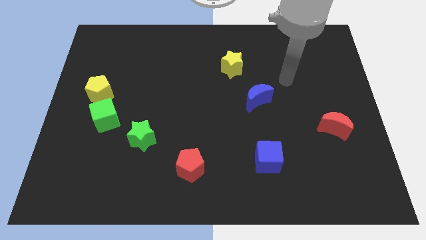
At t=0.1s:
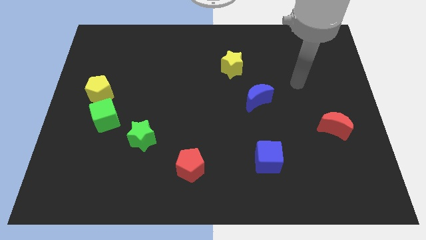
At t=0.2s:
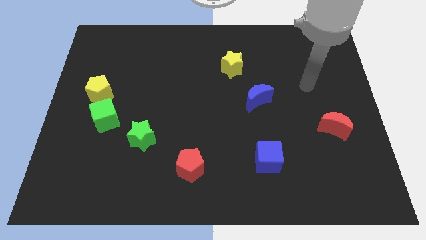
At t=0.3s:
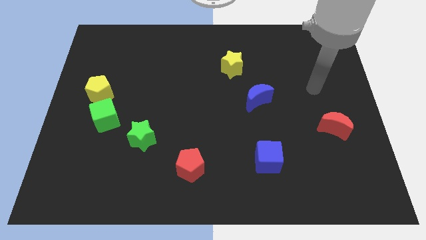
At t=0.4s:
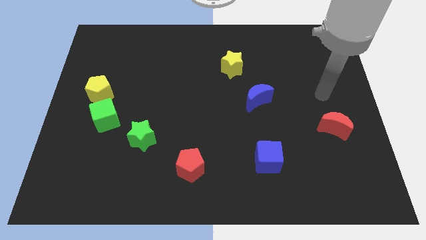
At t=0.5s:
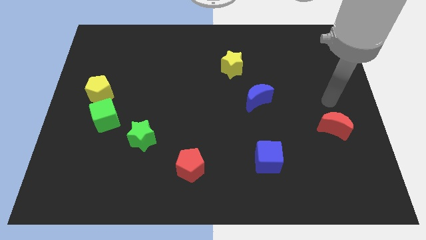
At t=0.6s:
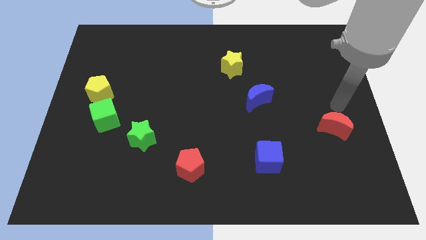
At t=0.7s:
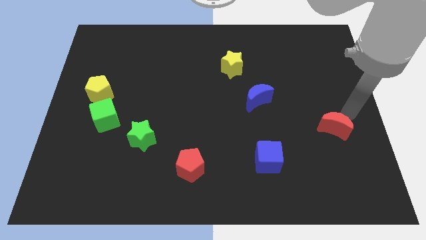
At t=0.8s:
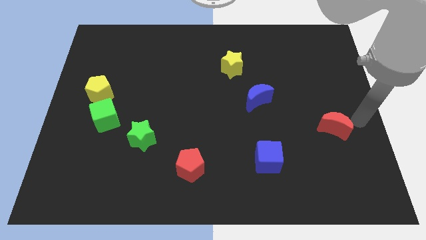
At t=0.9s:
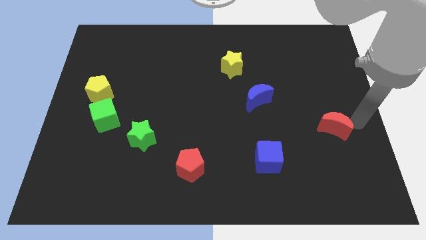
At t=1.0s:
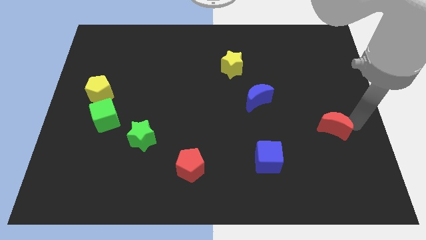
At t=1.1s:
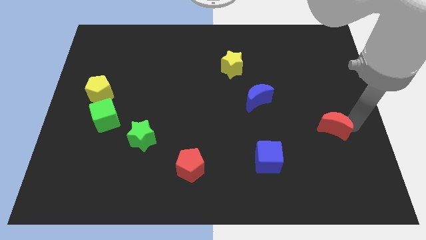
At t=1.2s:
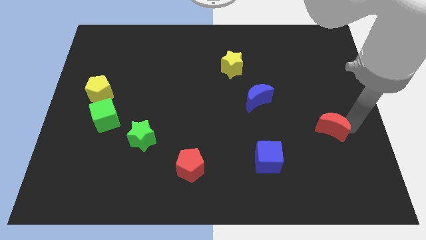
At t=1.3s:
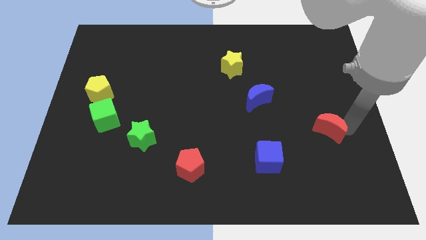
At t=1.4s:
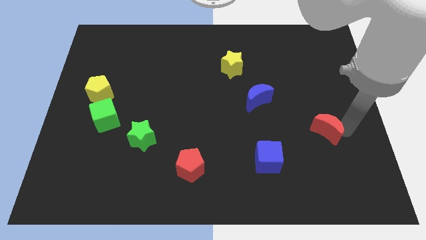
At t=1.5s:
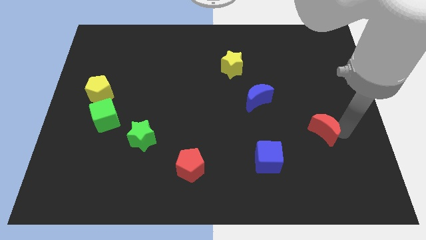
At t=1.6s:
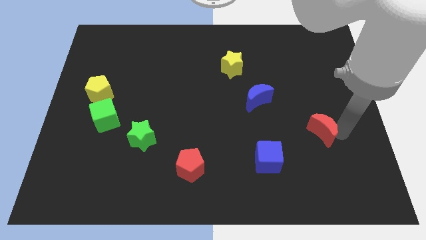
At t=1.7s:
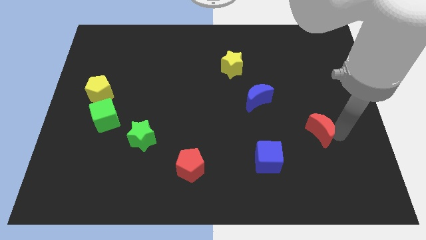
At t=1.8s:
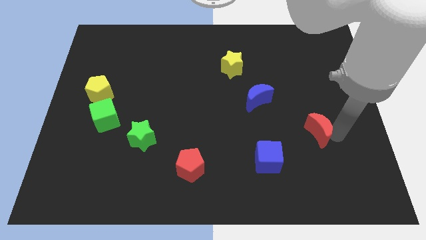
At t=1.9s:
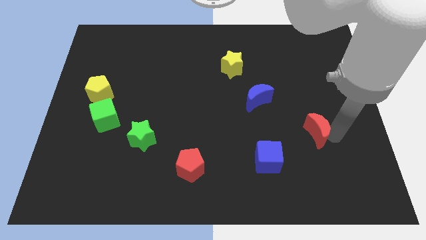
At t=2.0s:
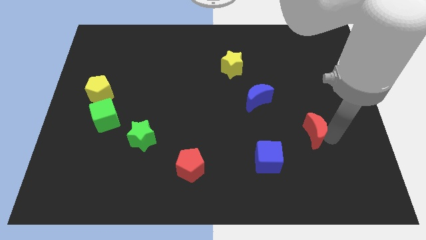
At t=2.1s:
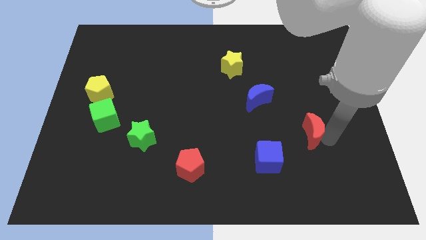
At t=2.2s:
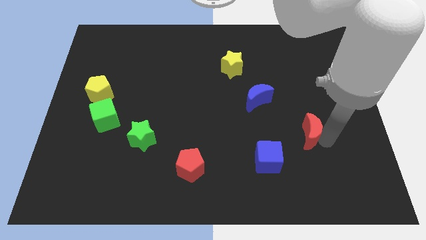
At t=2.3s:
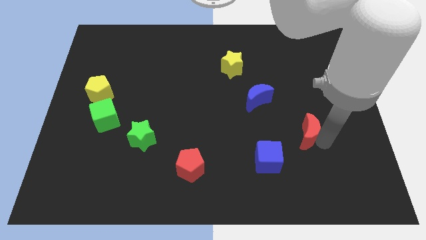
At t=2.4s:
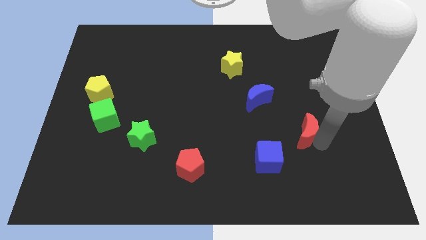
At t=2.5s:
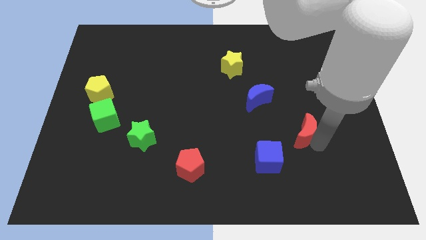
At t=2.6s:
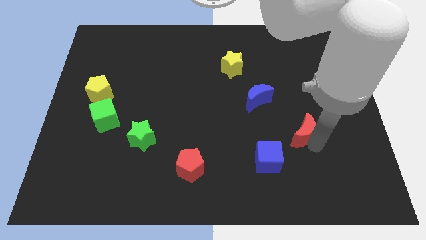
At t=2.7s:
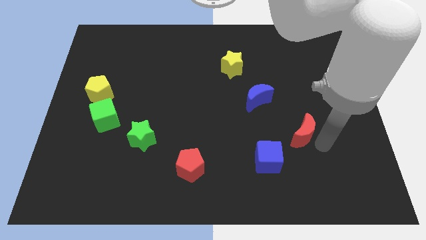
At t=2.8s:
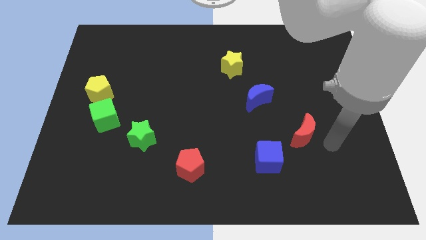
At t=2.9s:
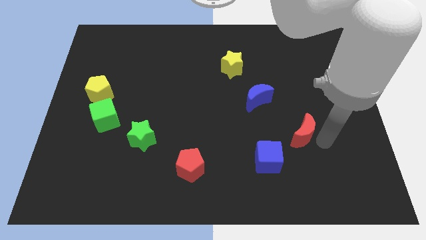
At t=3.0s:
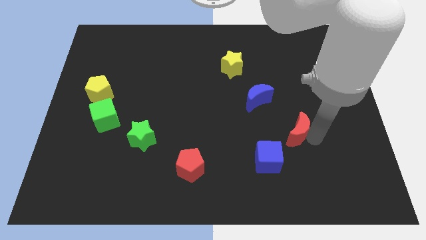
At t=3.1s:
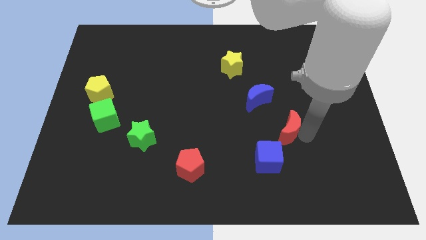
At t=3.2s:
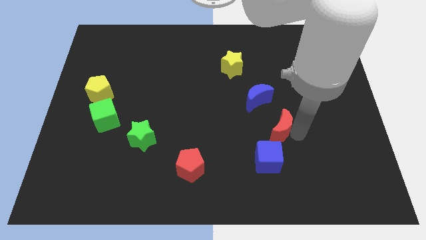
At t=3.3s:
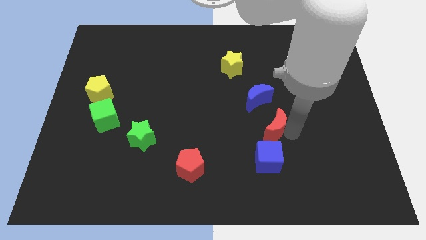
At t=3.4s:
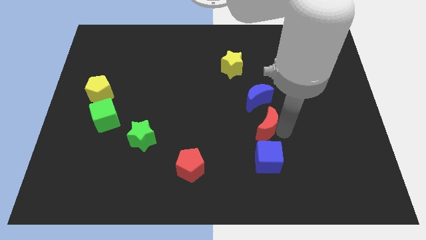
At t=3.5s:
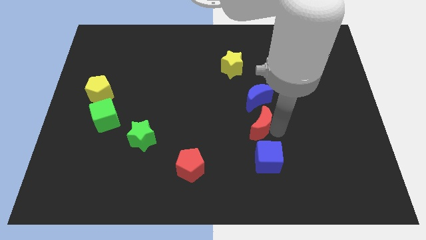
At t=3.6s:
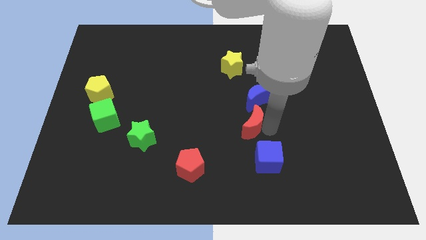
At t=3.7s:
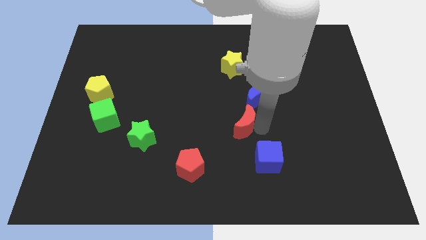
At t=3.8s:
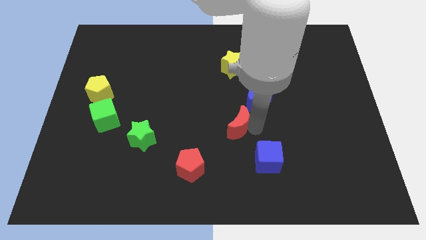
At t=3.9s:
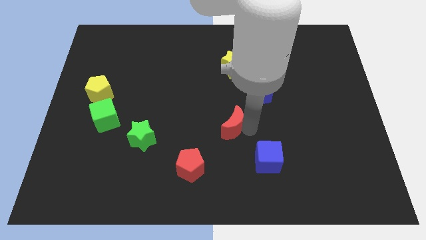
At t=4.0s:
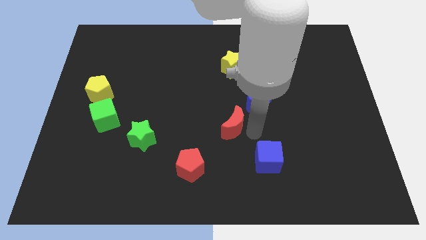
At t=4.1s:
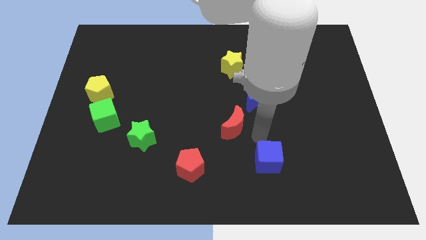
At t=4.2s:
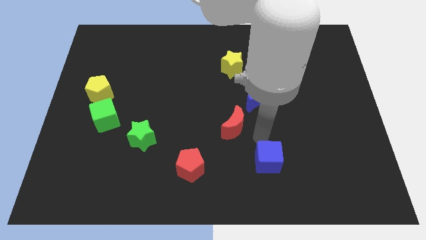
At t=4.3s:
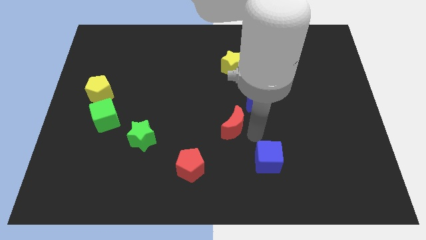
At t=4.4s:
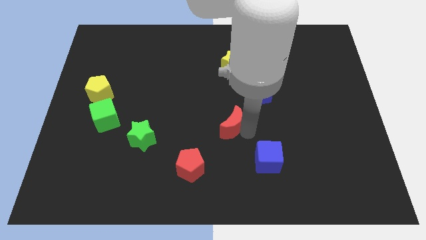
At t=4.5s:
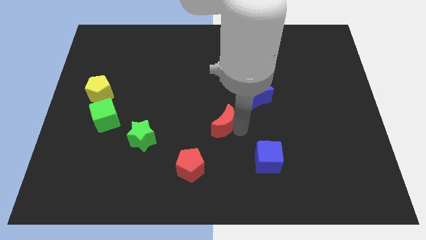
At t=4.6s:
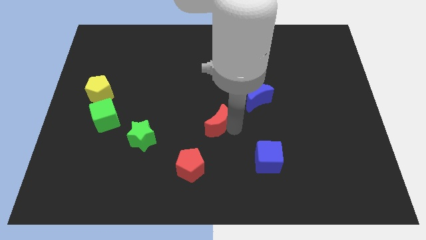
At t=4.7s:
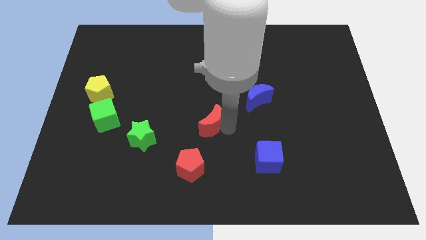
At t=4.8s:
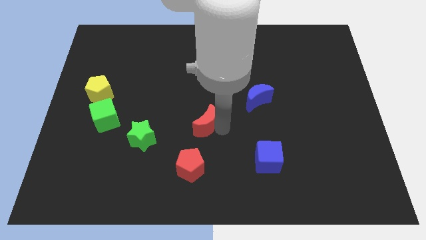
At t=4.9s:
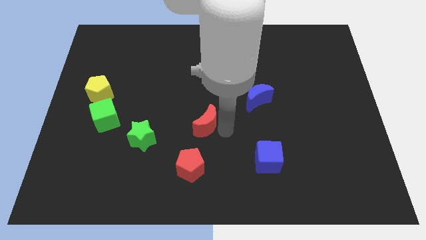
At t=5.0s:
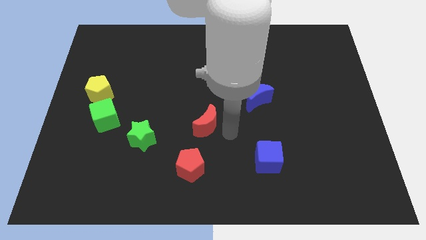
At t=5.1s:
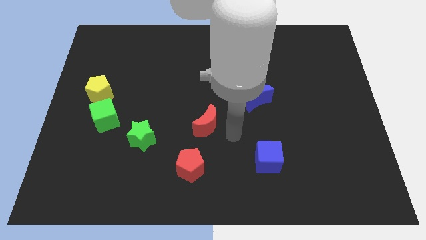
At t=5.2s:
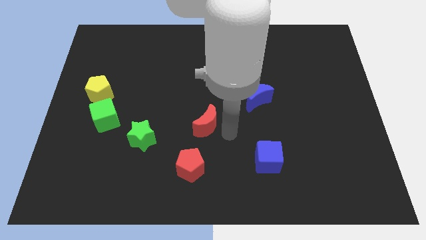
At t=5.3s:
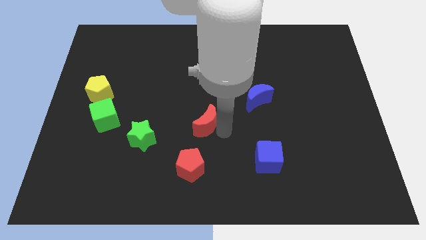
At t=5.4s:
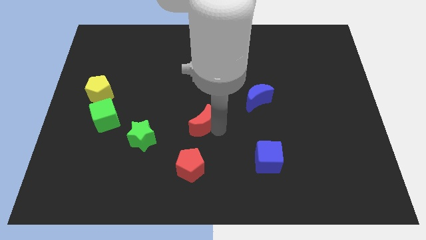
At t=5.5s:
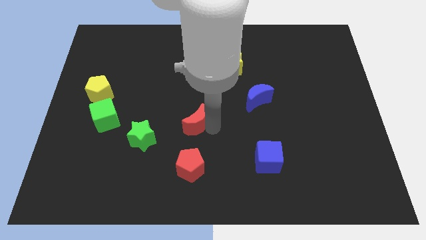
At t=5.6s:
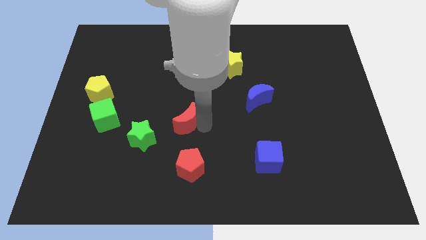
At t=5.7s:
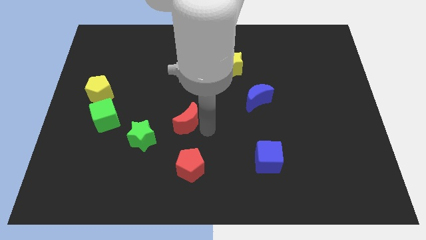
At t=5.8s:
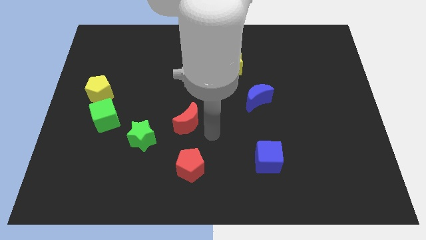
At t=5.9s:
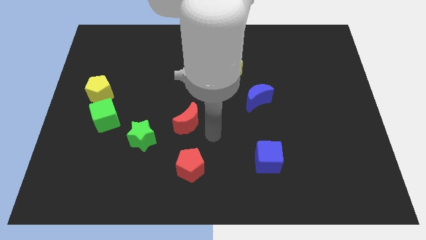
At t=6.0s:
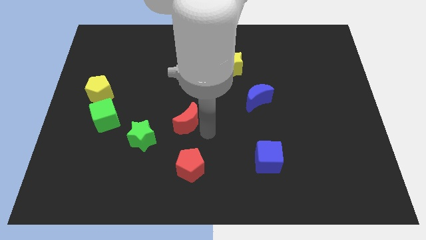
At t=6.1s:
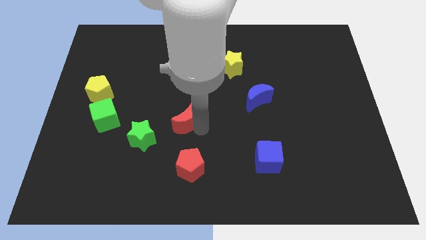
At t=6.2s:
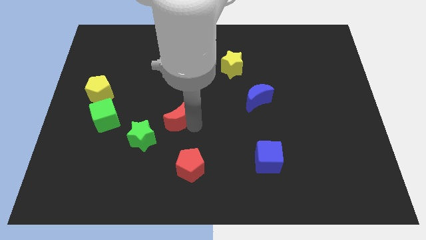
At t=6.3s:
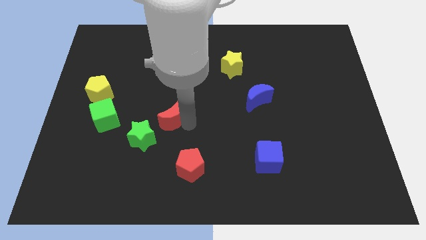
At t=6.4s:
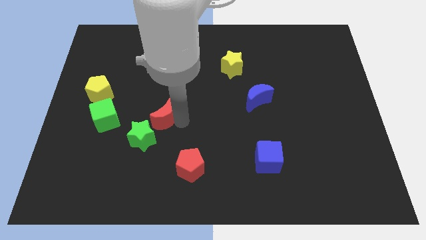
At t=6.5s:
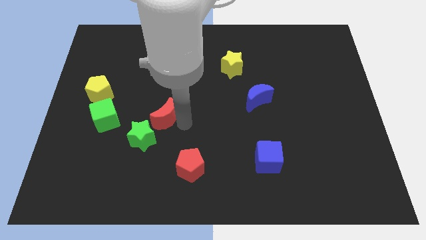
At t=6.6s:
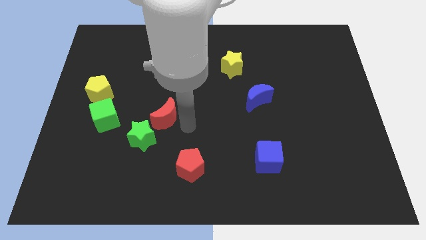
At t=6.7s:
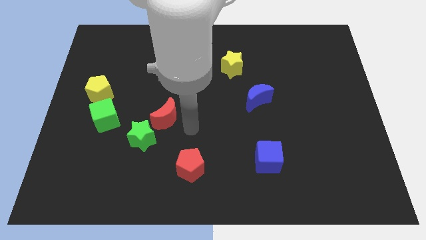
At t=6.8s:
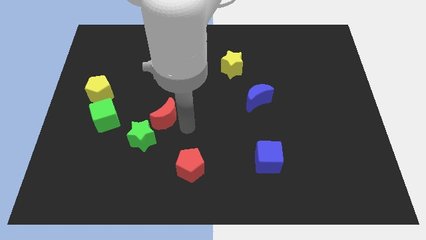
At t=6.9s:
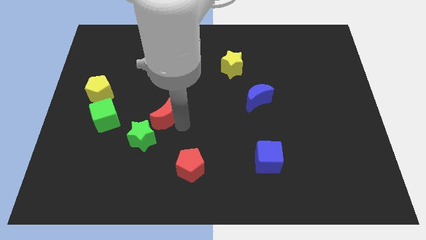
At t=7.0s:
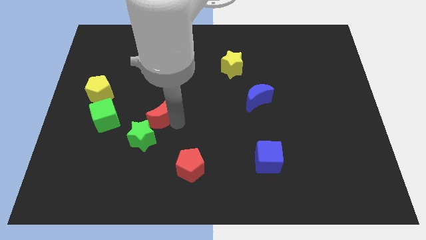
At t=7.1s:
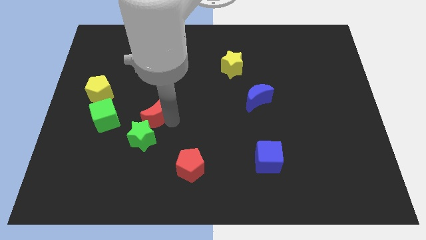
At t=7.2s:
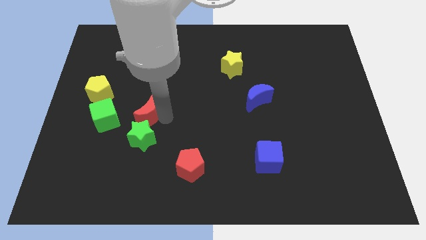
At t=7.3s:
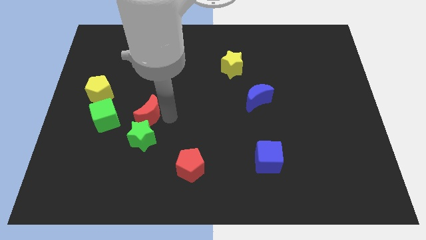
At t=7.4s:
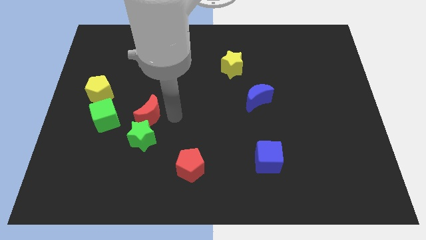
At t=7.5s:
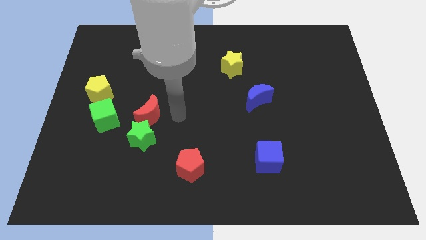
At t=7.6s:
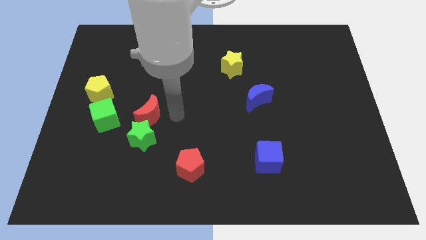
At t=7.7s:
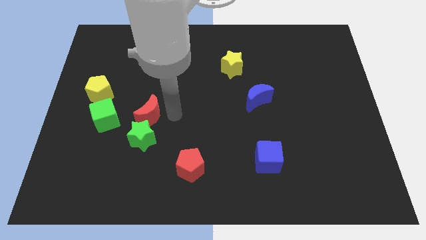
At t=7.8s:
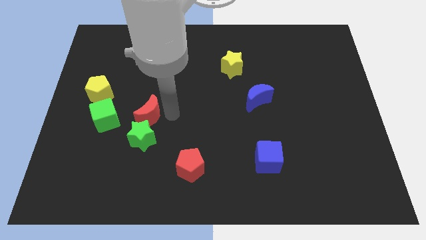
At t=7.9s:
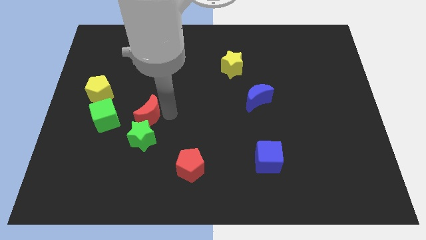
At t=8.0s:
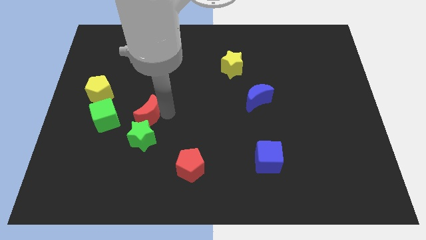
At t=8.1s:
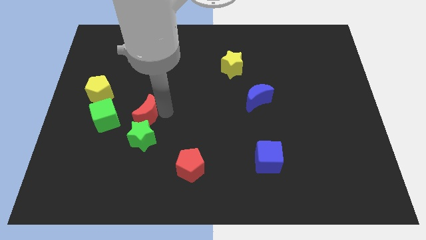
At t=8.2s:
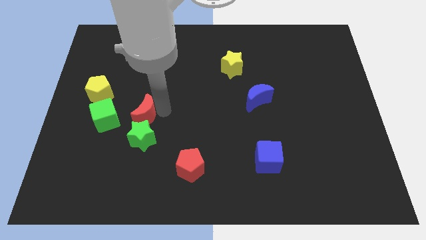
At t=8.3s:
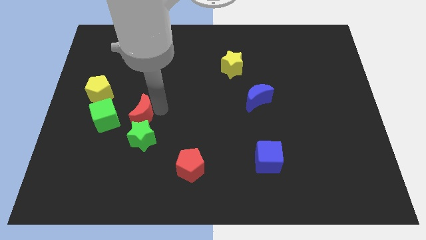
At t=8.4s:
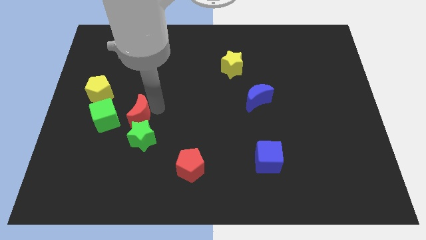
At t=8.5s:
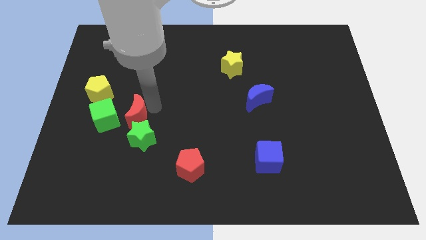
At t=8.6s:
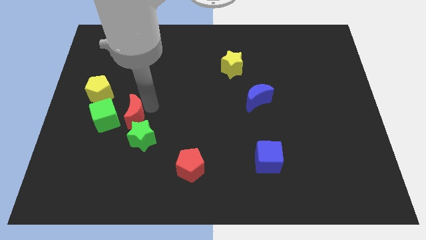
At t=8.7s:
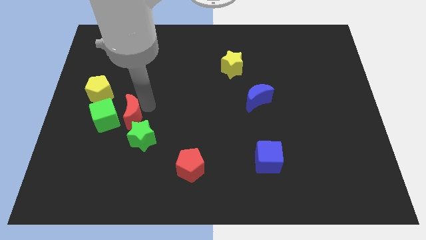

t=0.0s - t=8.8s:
slide the red moon to the green cube
